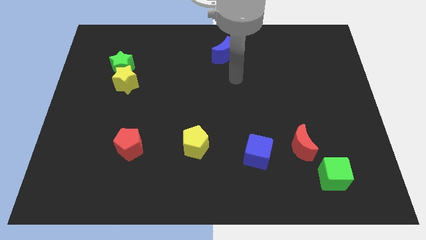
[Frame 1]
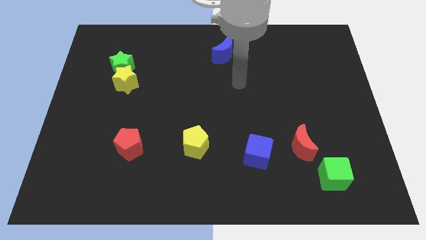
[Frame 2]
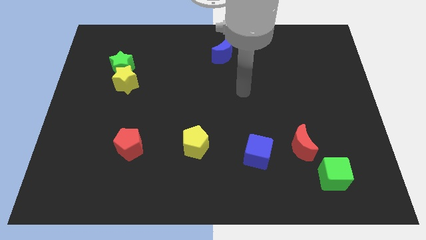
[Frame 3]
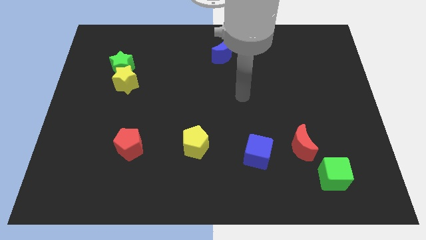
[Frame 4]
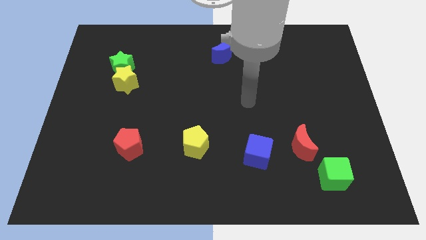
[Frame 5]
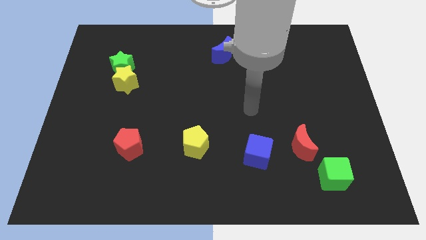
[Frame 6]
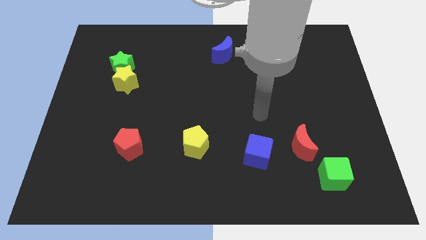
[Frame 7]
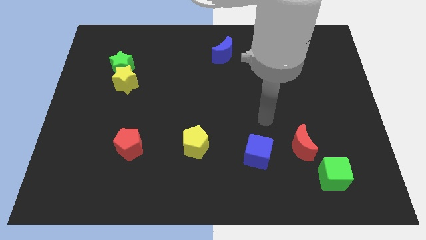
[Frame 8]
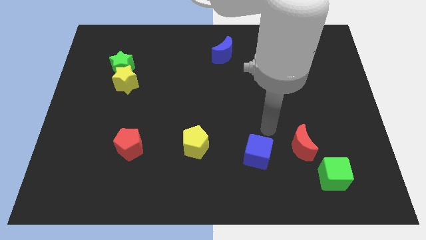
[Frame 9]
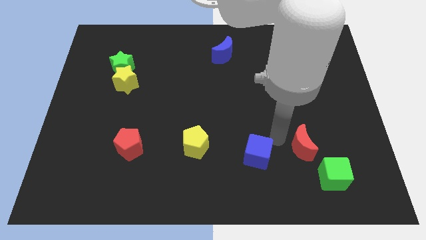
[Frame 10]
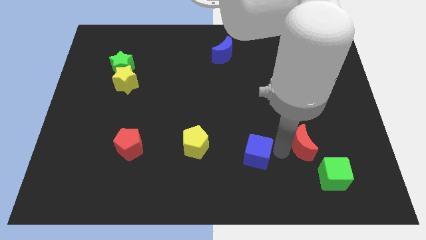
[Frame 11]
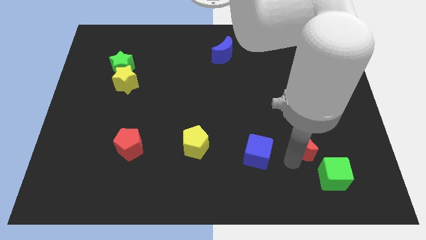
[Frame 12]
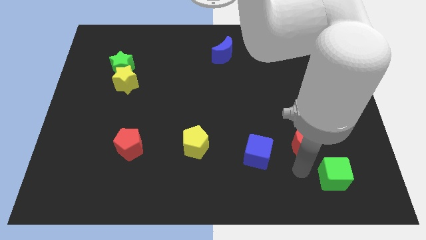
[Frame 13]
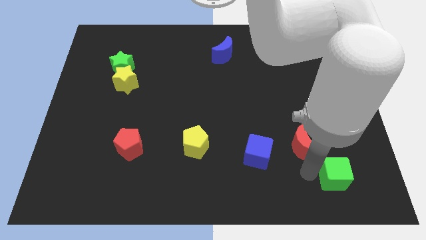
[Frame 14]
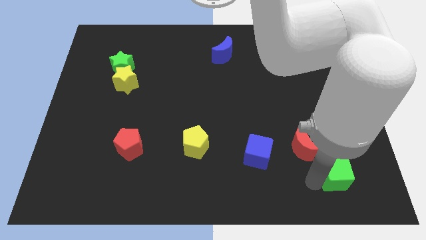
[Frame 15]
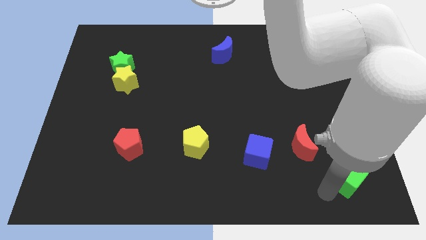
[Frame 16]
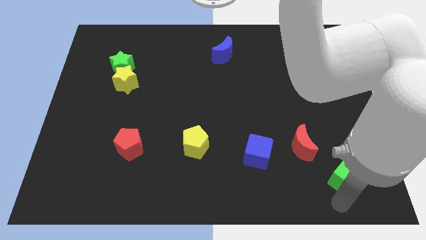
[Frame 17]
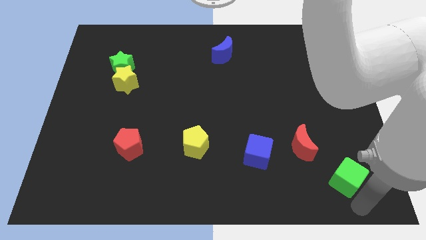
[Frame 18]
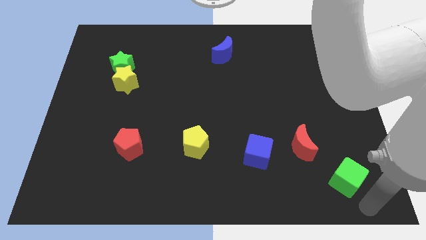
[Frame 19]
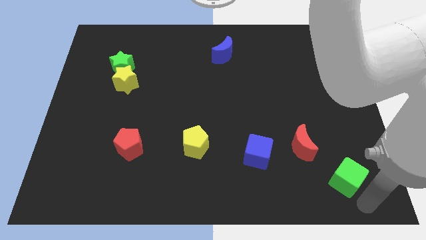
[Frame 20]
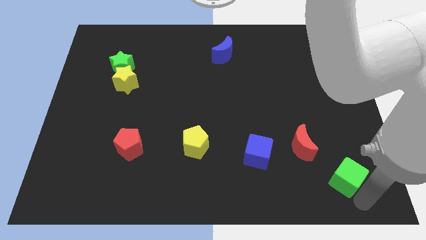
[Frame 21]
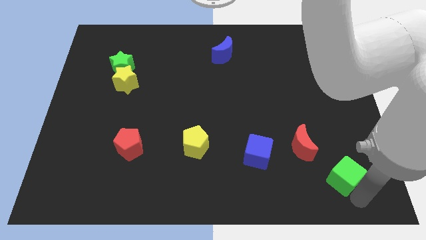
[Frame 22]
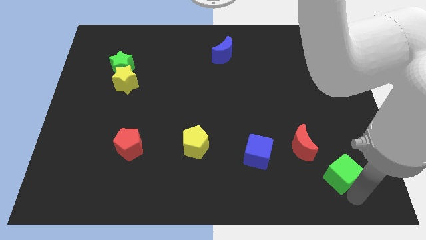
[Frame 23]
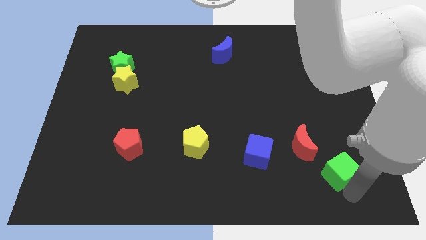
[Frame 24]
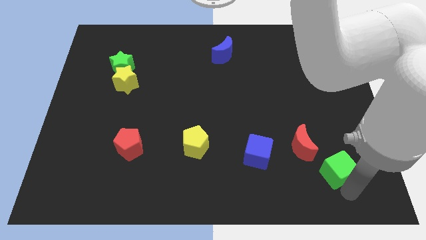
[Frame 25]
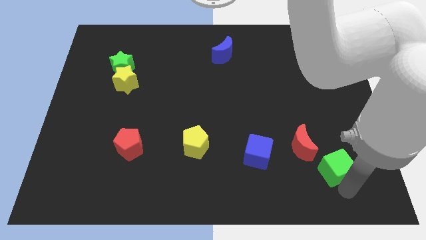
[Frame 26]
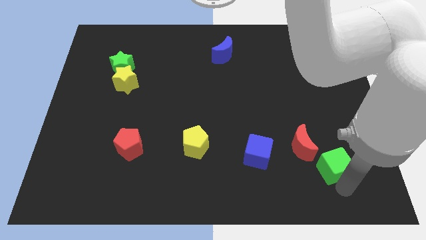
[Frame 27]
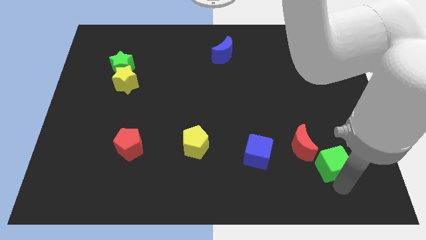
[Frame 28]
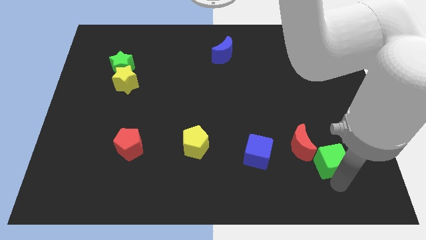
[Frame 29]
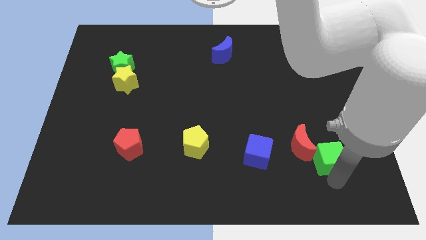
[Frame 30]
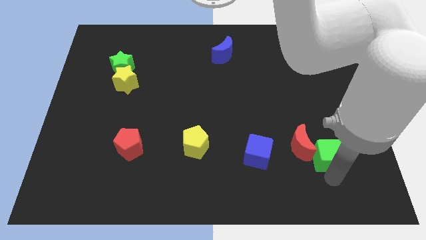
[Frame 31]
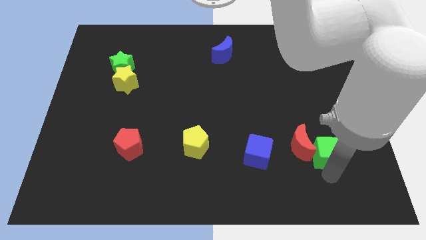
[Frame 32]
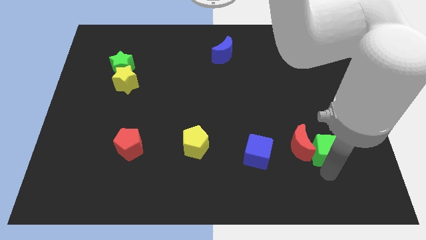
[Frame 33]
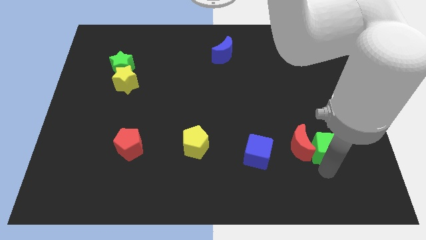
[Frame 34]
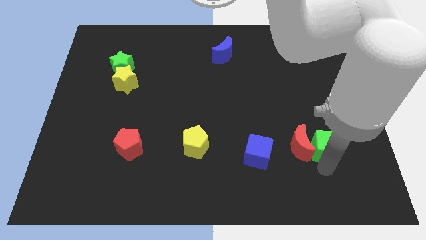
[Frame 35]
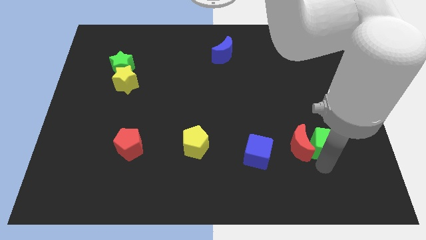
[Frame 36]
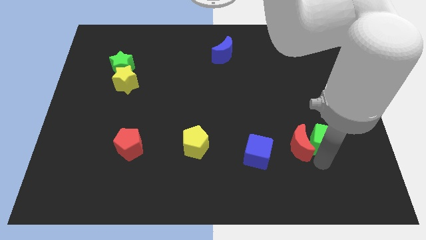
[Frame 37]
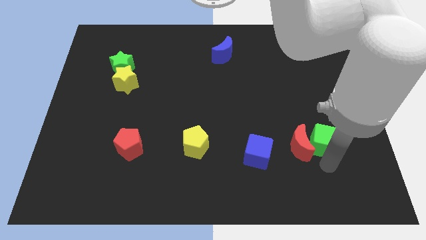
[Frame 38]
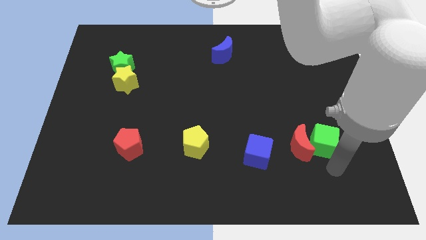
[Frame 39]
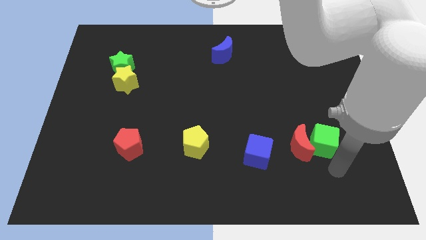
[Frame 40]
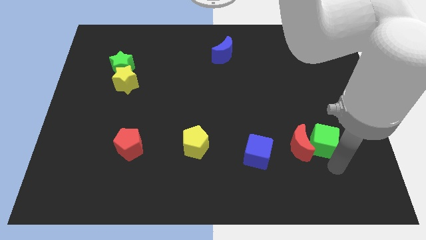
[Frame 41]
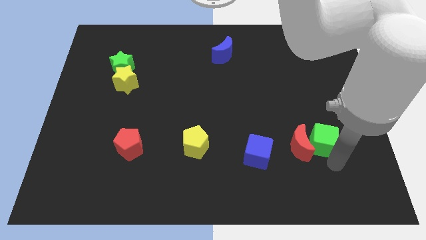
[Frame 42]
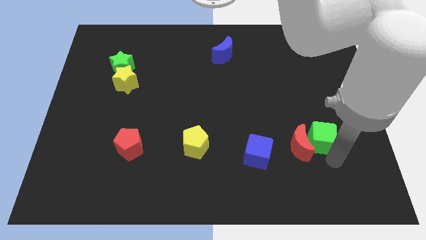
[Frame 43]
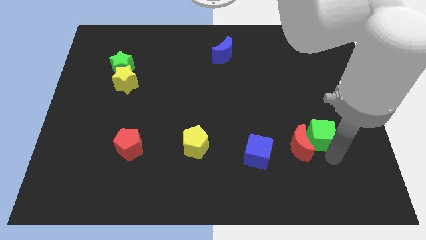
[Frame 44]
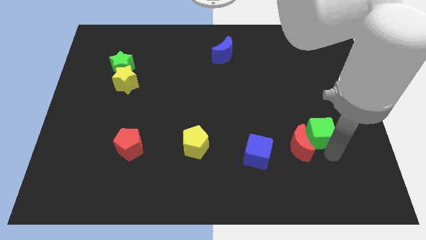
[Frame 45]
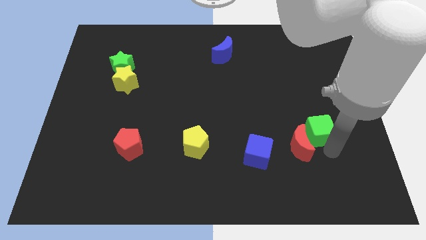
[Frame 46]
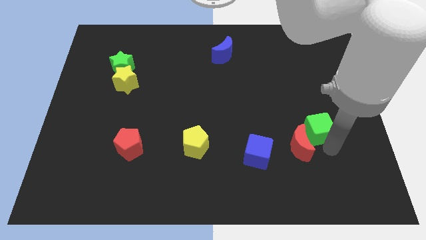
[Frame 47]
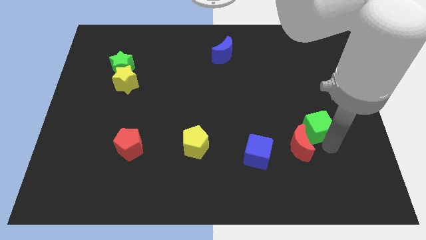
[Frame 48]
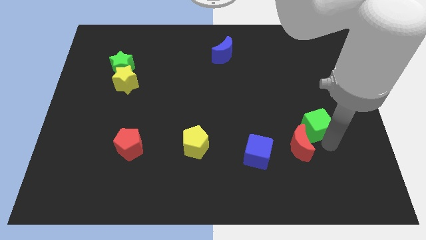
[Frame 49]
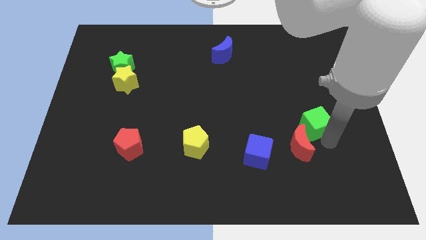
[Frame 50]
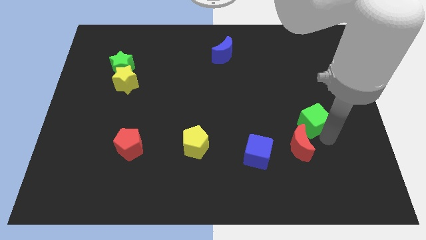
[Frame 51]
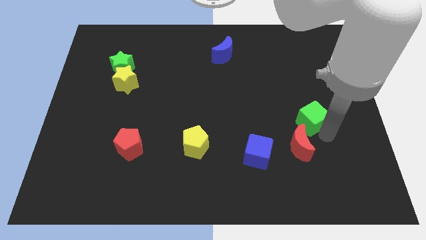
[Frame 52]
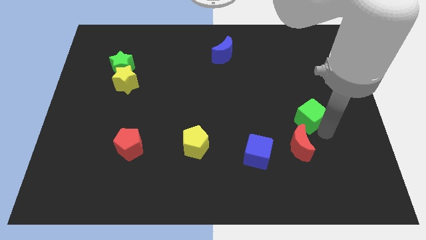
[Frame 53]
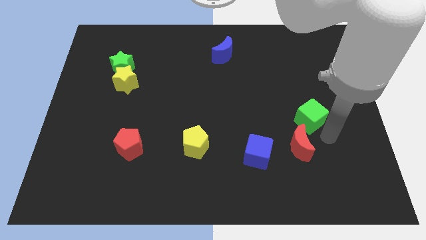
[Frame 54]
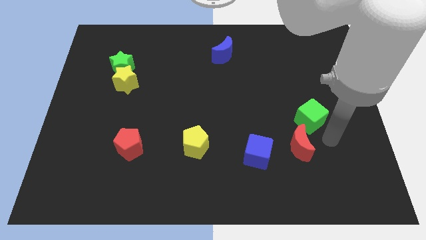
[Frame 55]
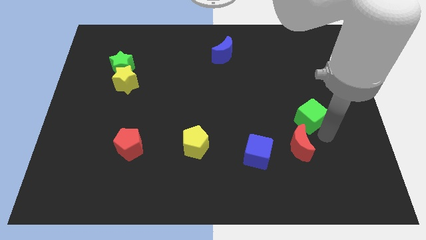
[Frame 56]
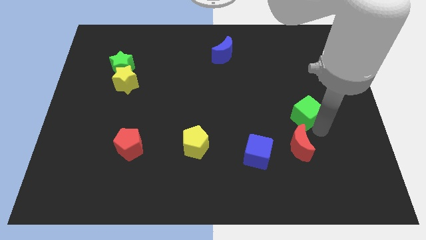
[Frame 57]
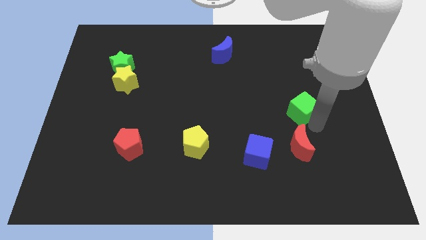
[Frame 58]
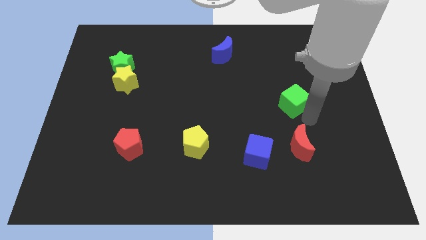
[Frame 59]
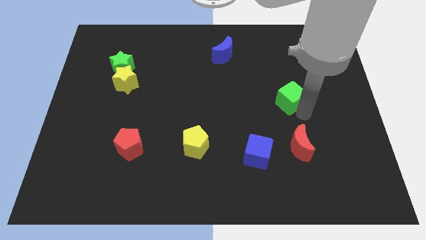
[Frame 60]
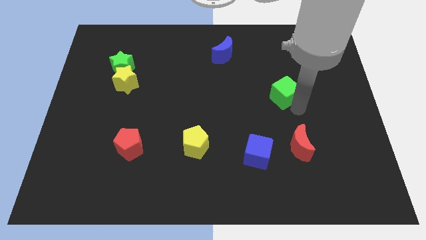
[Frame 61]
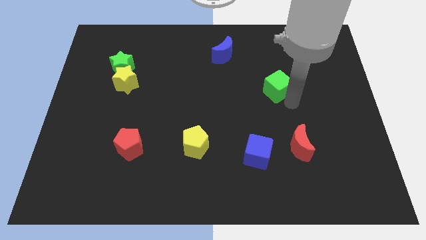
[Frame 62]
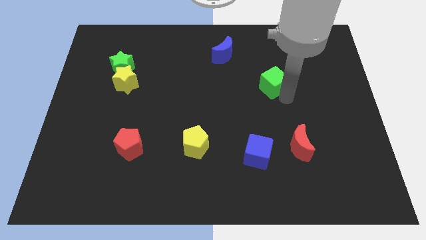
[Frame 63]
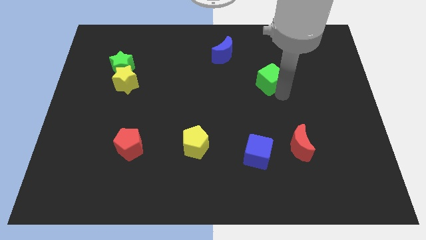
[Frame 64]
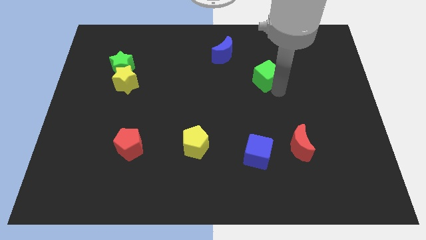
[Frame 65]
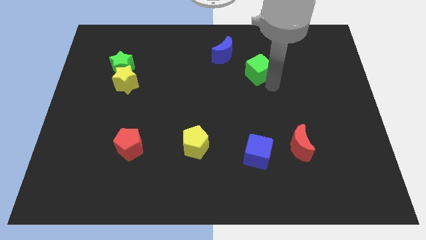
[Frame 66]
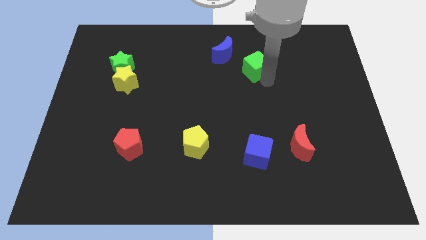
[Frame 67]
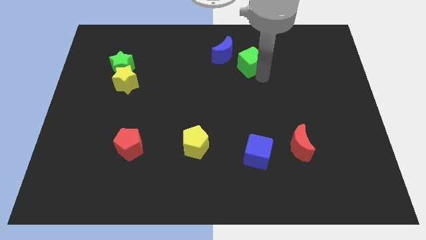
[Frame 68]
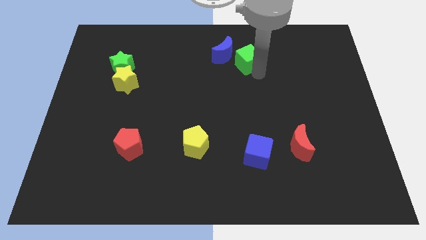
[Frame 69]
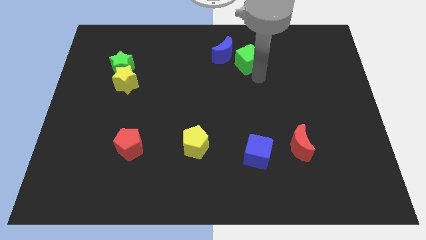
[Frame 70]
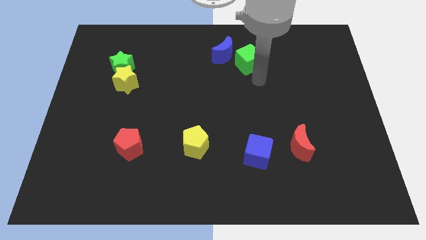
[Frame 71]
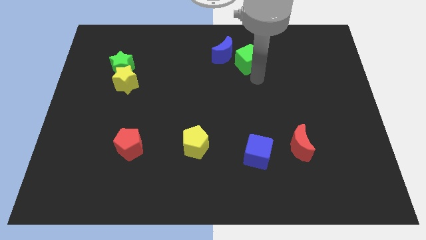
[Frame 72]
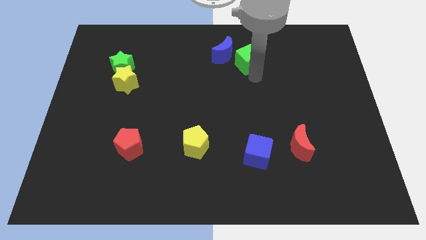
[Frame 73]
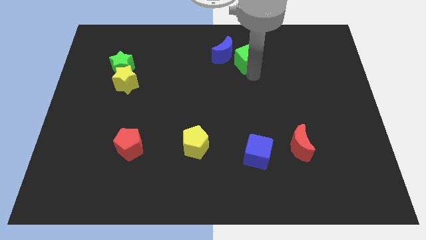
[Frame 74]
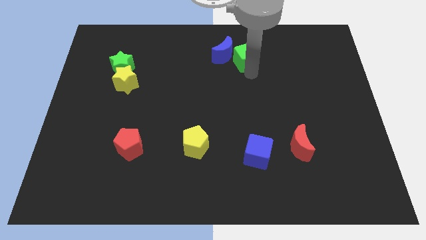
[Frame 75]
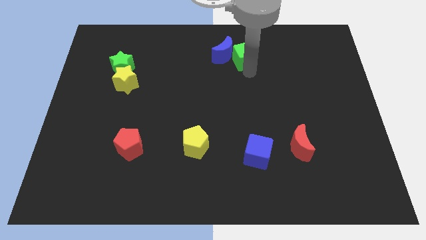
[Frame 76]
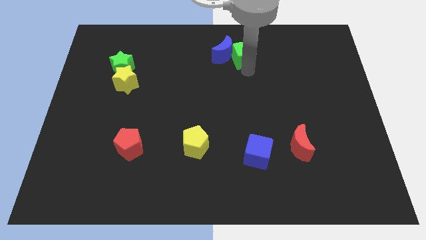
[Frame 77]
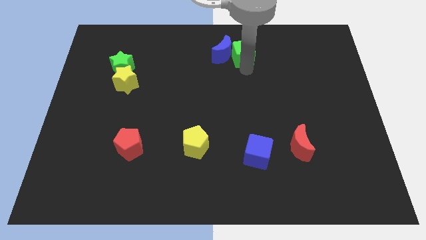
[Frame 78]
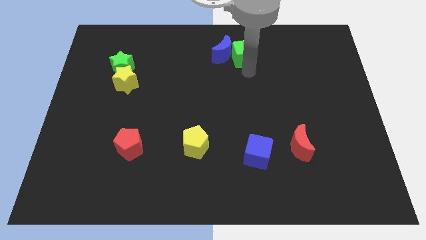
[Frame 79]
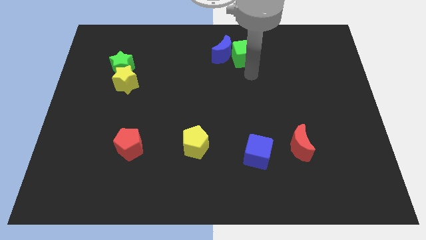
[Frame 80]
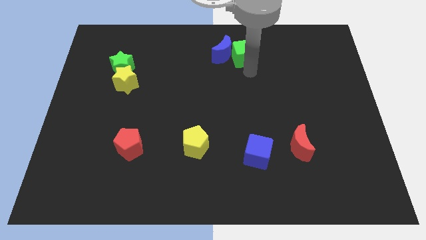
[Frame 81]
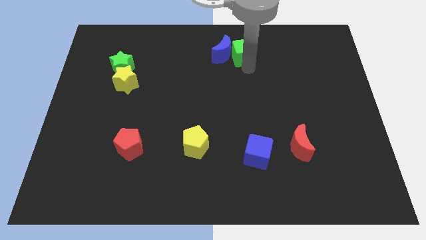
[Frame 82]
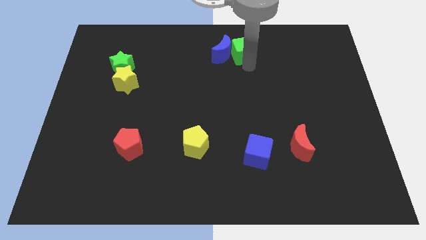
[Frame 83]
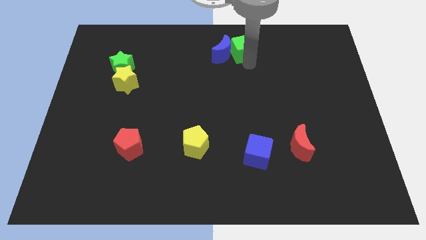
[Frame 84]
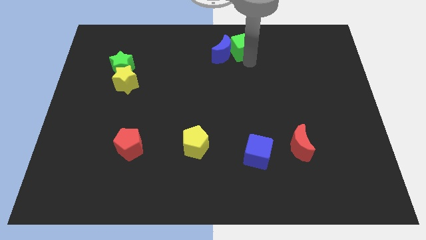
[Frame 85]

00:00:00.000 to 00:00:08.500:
move the green cube to the top
